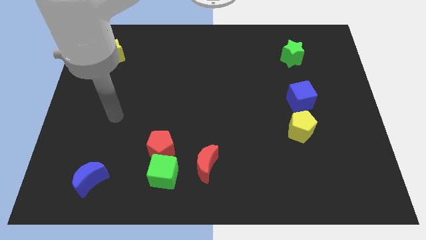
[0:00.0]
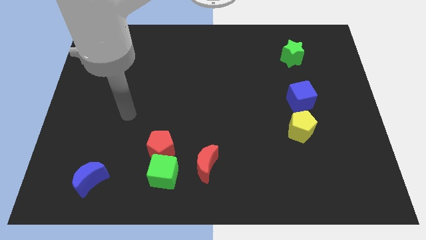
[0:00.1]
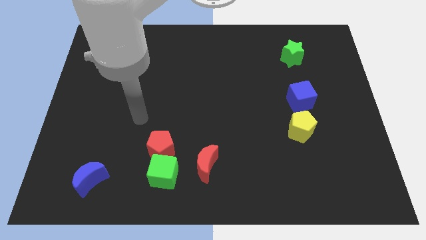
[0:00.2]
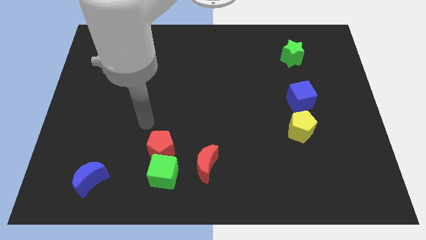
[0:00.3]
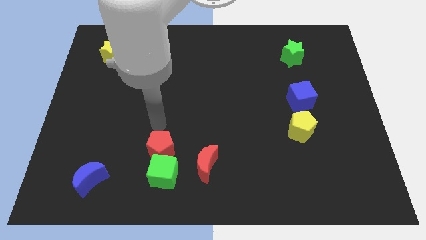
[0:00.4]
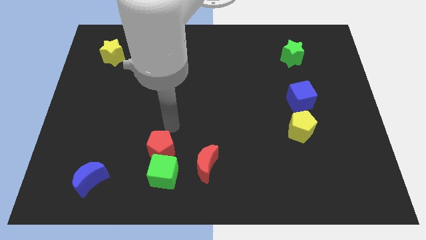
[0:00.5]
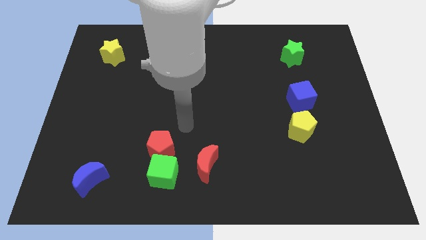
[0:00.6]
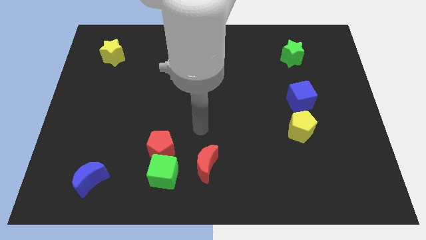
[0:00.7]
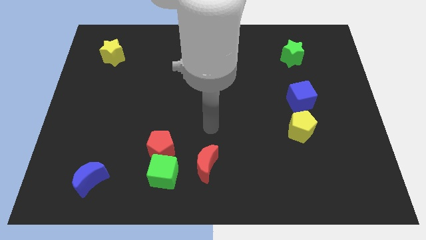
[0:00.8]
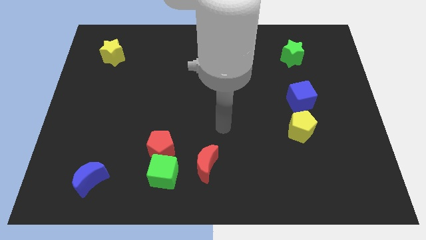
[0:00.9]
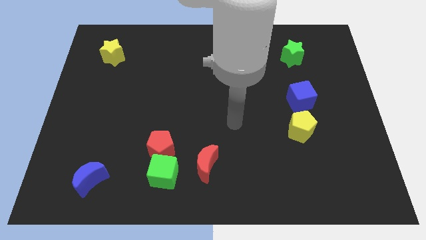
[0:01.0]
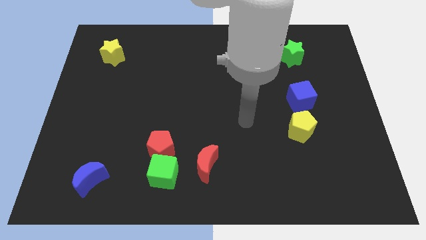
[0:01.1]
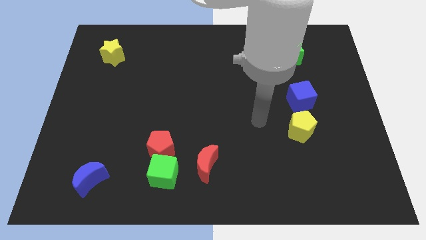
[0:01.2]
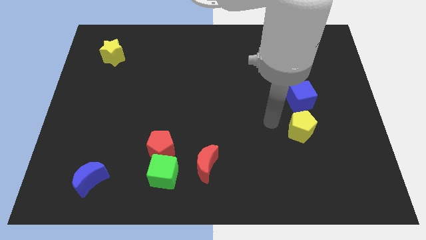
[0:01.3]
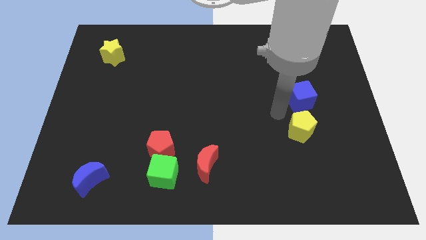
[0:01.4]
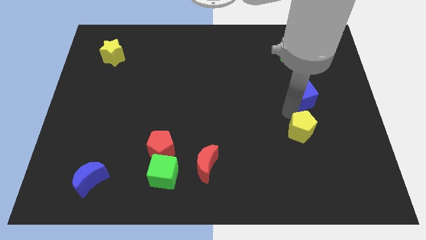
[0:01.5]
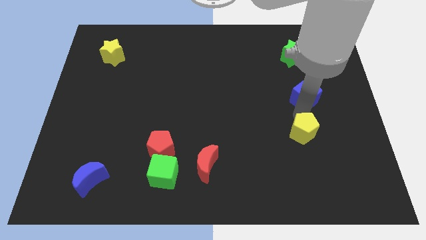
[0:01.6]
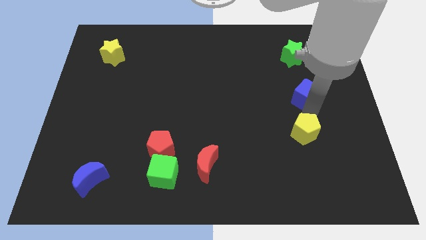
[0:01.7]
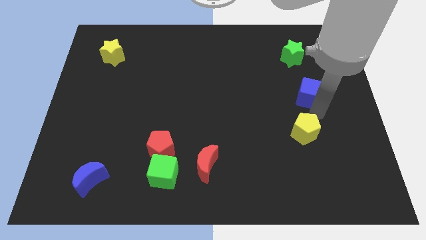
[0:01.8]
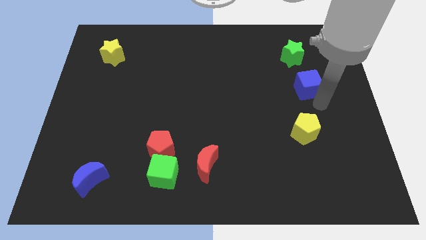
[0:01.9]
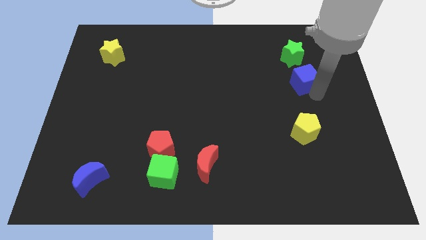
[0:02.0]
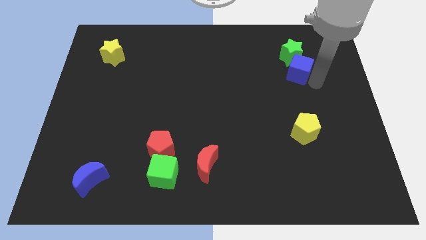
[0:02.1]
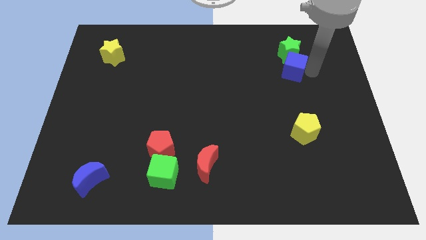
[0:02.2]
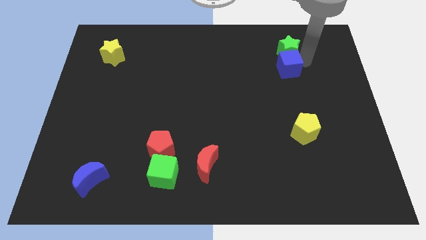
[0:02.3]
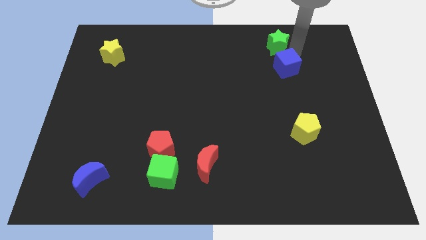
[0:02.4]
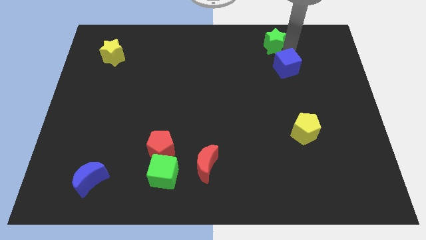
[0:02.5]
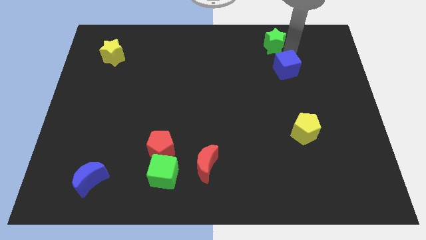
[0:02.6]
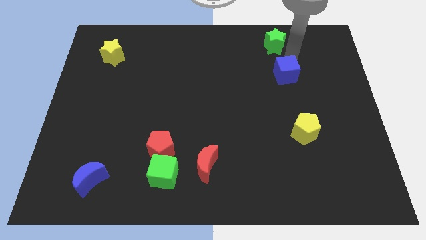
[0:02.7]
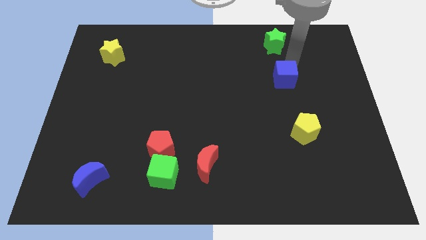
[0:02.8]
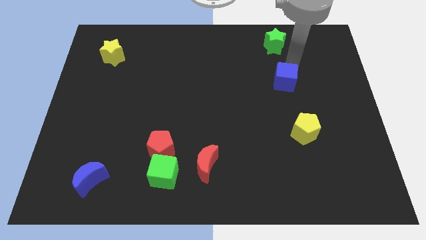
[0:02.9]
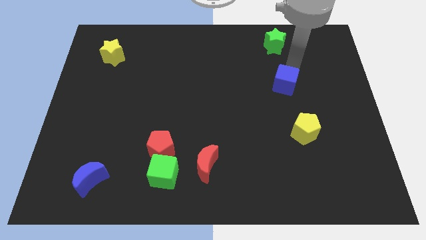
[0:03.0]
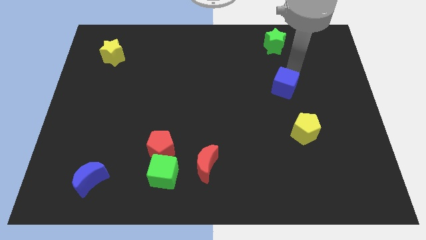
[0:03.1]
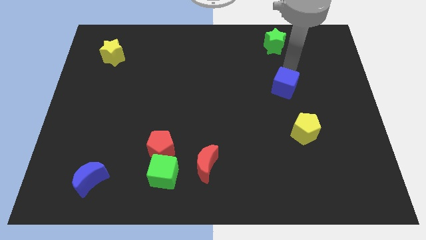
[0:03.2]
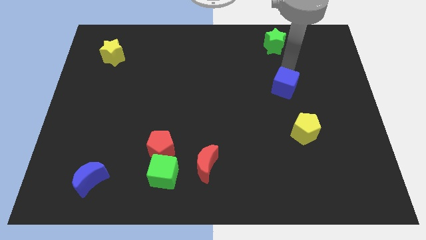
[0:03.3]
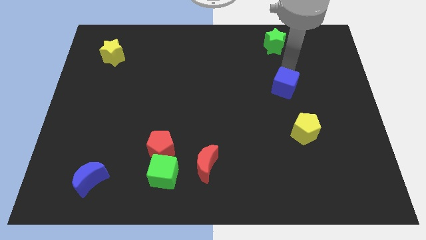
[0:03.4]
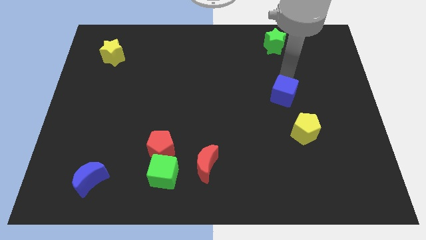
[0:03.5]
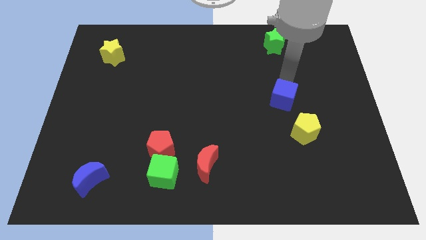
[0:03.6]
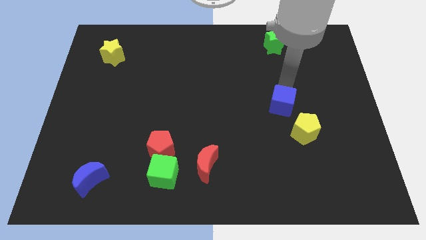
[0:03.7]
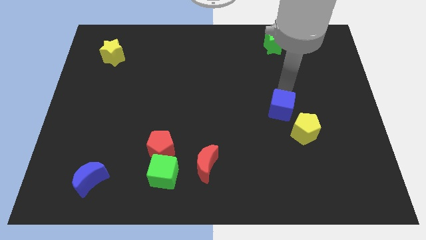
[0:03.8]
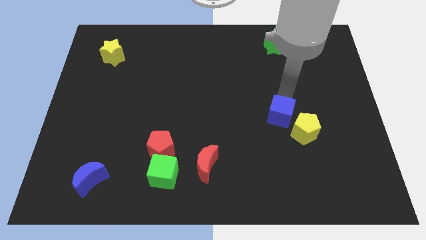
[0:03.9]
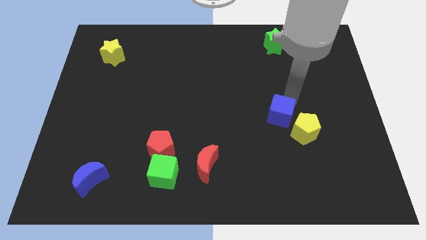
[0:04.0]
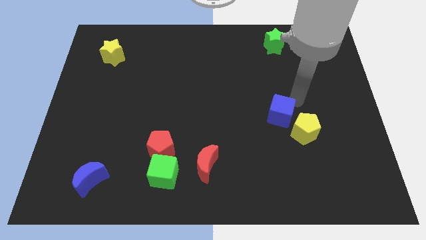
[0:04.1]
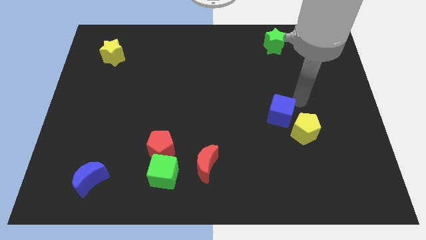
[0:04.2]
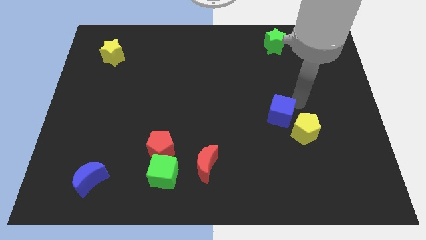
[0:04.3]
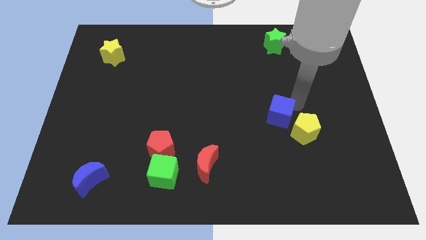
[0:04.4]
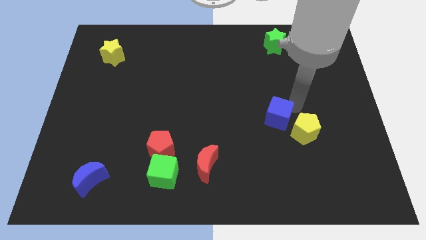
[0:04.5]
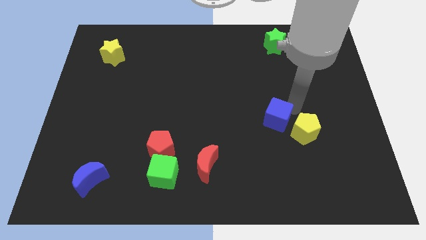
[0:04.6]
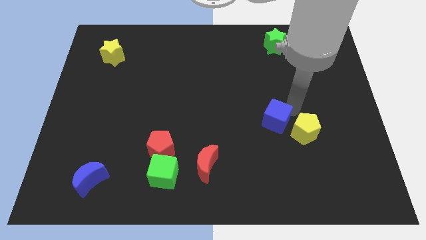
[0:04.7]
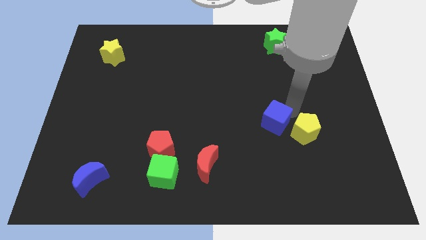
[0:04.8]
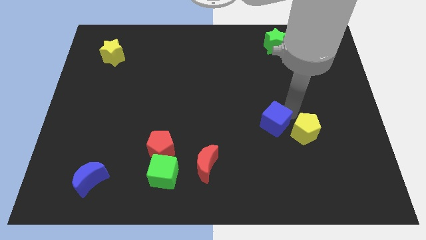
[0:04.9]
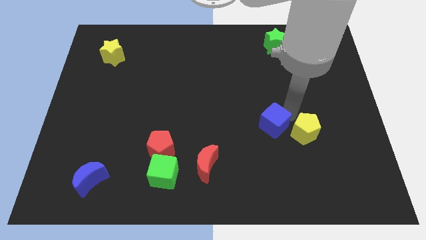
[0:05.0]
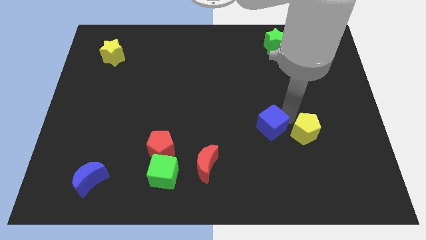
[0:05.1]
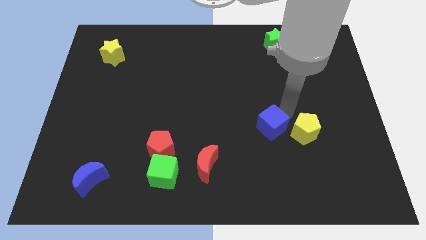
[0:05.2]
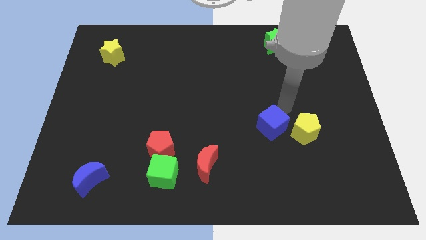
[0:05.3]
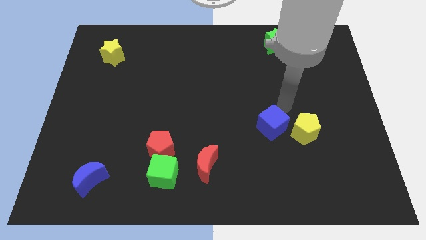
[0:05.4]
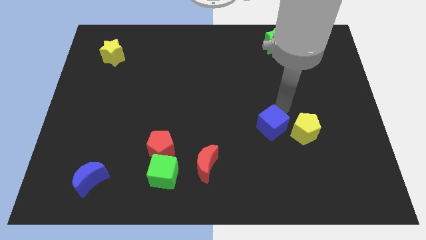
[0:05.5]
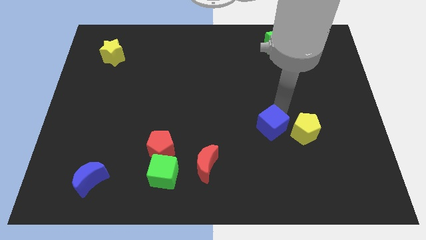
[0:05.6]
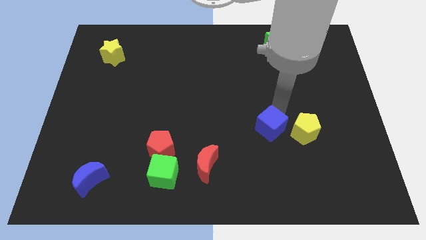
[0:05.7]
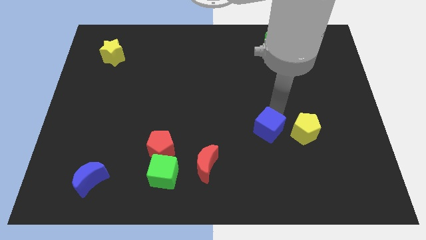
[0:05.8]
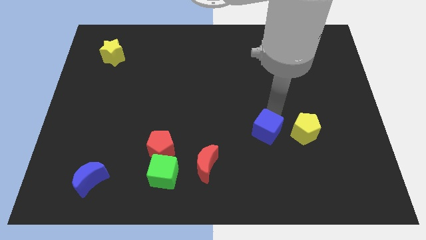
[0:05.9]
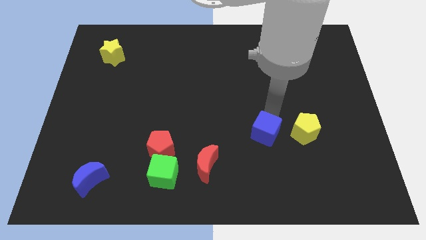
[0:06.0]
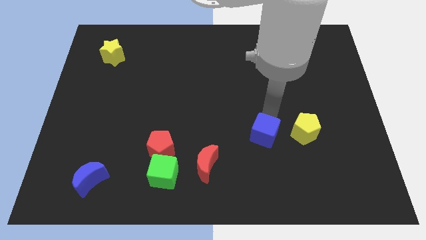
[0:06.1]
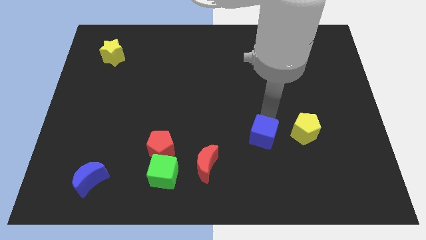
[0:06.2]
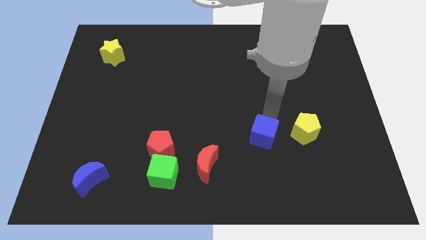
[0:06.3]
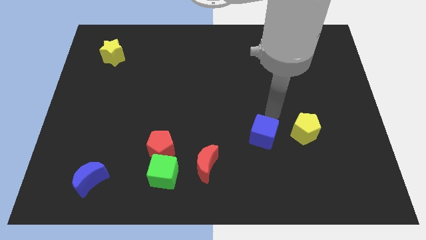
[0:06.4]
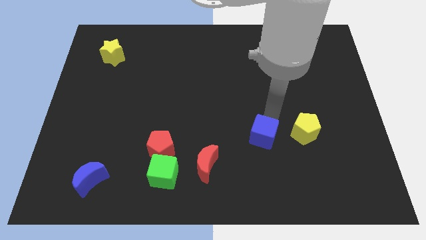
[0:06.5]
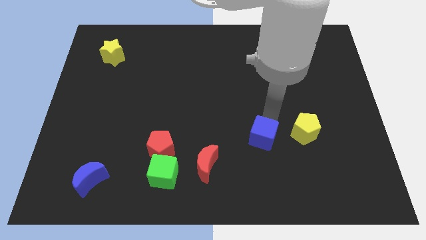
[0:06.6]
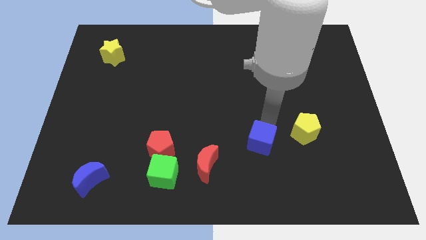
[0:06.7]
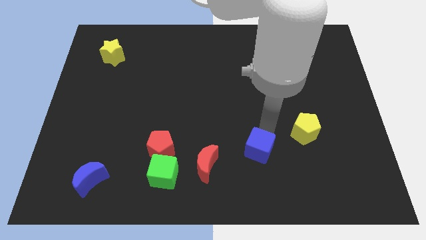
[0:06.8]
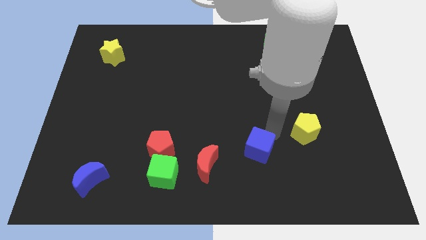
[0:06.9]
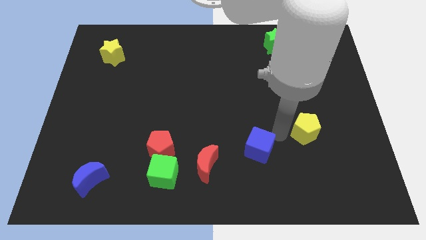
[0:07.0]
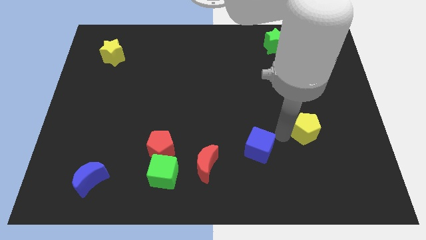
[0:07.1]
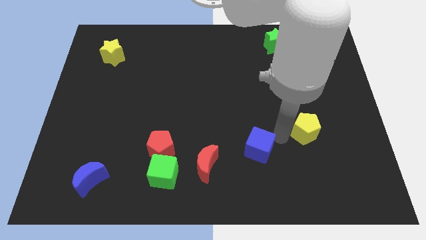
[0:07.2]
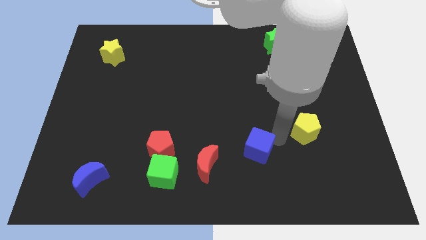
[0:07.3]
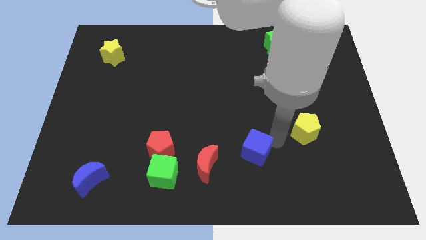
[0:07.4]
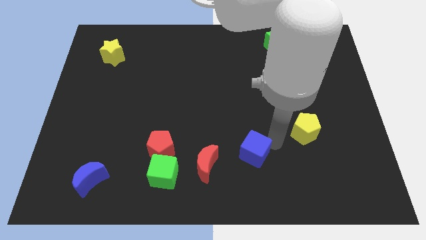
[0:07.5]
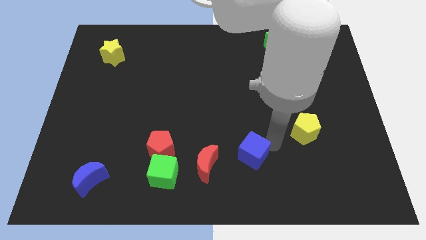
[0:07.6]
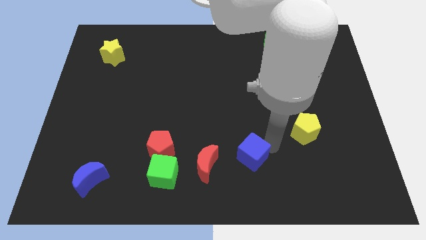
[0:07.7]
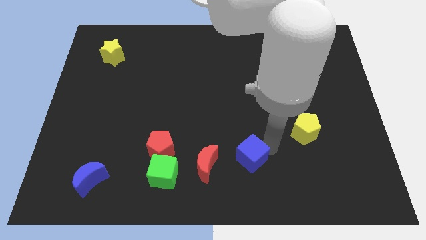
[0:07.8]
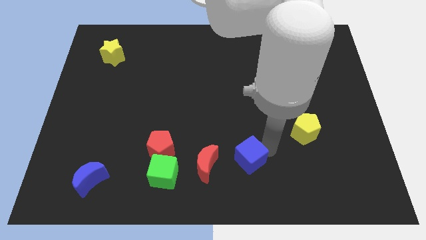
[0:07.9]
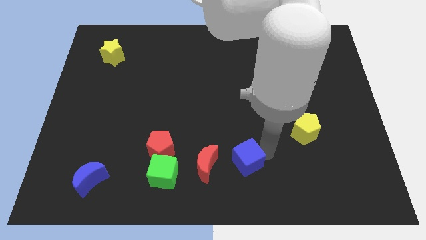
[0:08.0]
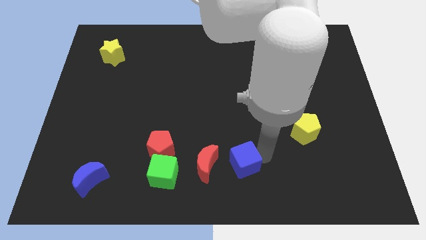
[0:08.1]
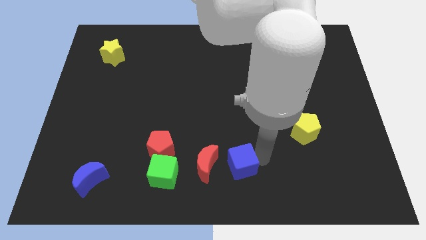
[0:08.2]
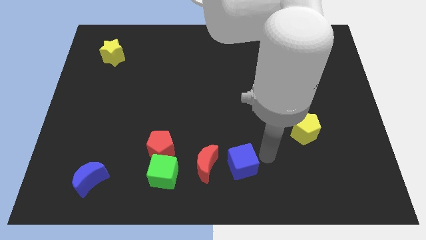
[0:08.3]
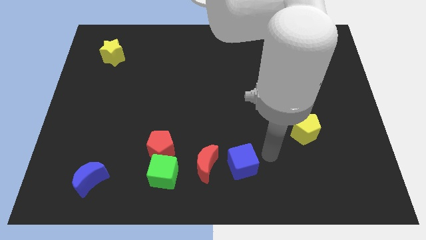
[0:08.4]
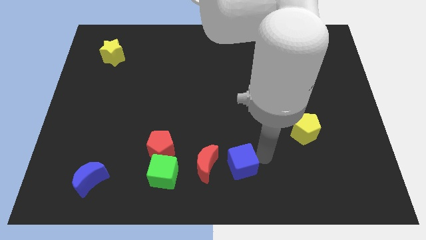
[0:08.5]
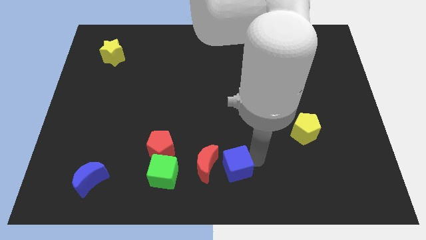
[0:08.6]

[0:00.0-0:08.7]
push the blue cube to the right of the green cube
